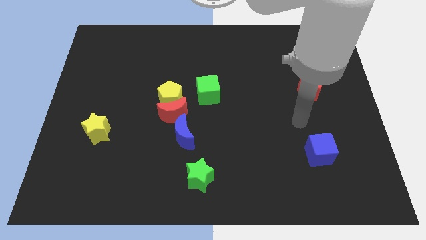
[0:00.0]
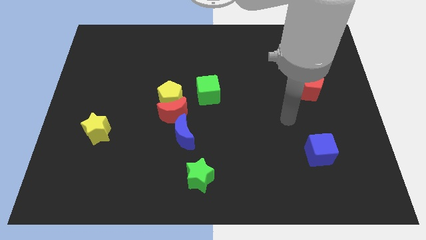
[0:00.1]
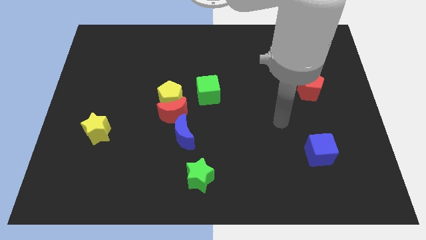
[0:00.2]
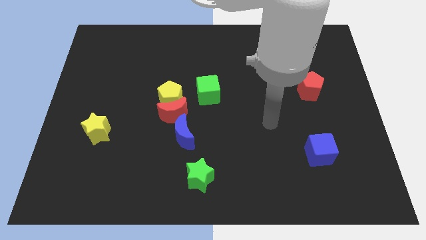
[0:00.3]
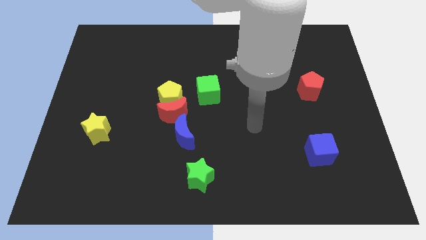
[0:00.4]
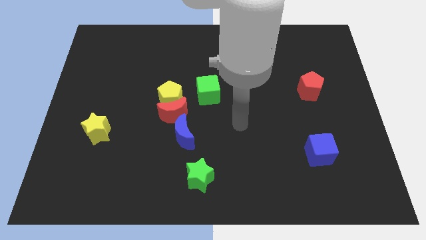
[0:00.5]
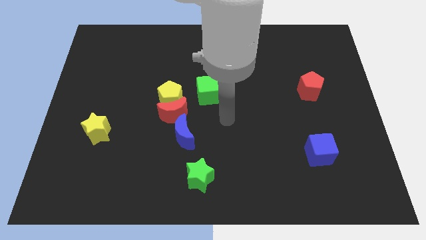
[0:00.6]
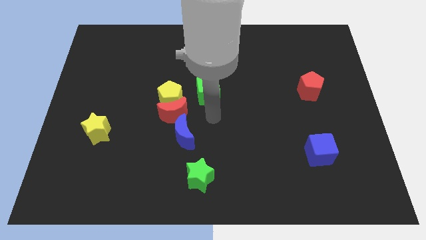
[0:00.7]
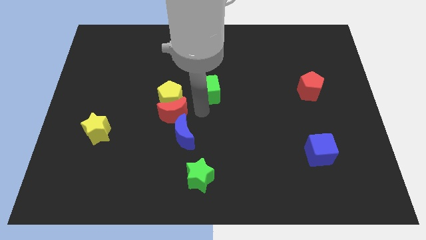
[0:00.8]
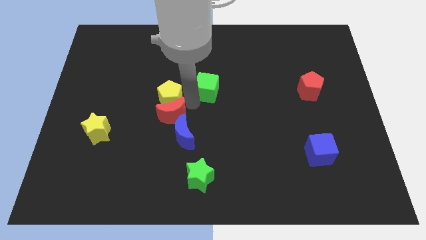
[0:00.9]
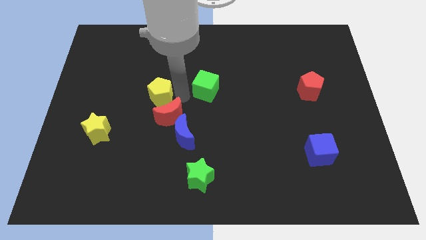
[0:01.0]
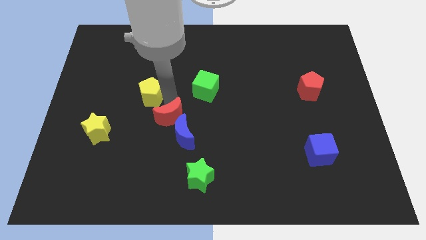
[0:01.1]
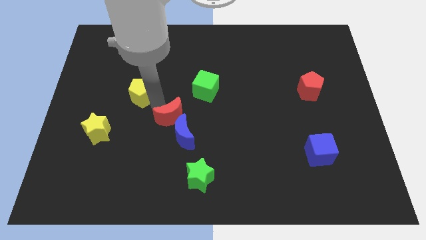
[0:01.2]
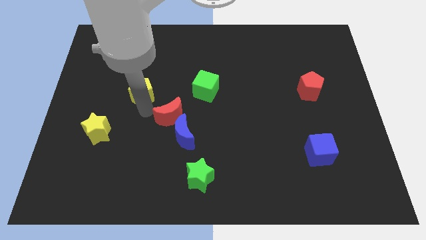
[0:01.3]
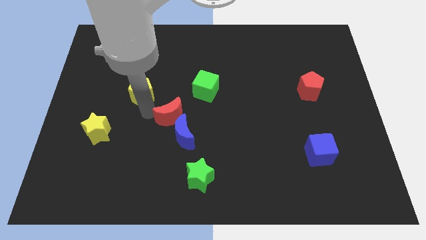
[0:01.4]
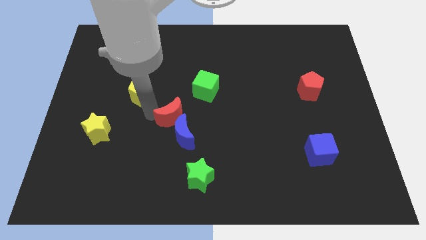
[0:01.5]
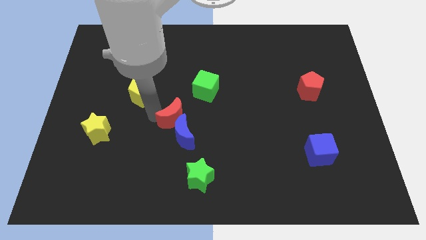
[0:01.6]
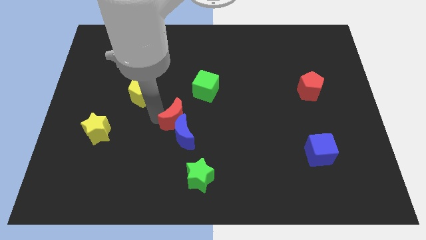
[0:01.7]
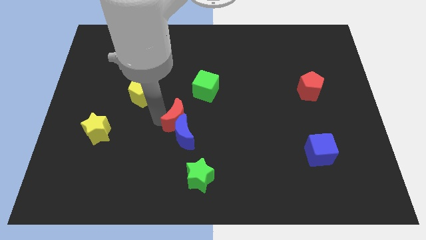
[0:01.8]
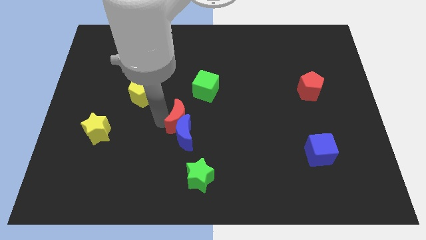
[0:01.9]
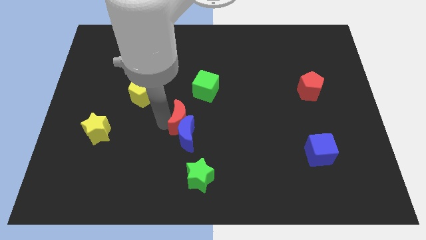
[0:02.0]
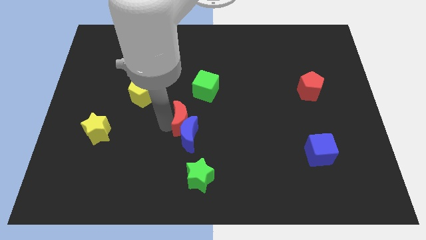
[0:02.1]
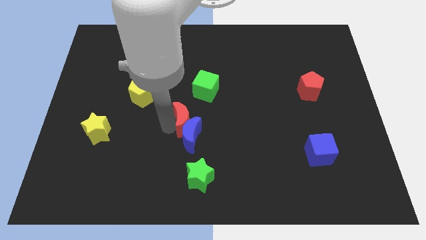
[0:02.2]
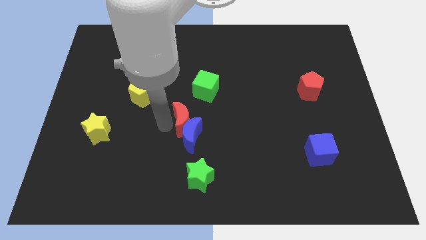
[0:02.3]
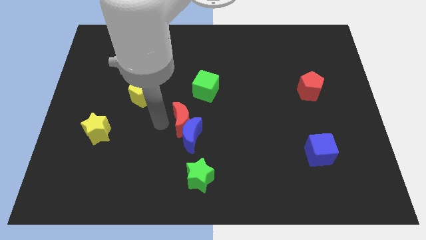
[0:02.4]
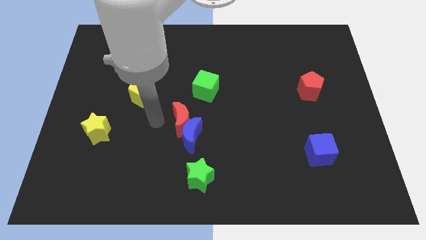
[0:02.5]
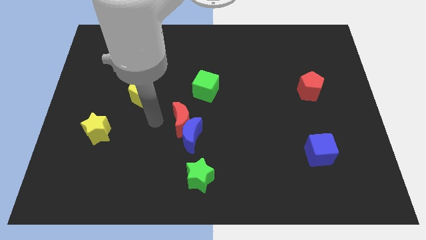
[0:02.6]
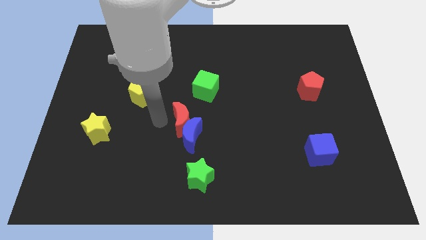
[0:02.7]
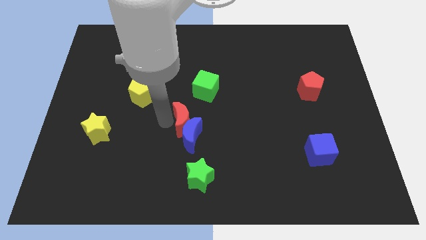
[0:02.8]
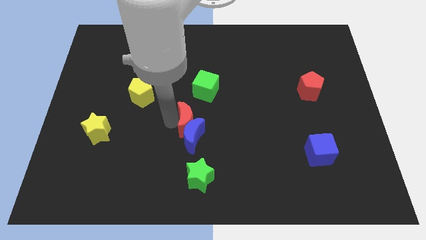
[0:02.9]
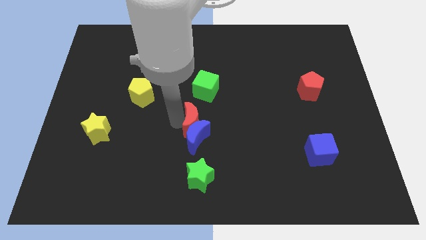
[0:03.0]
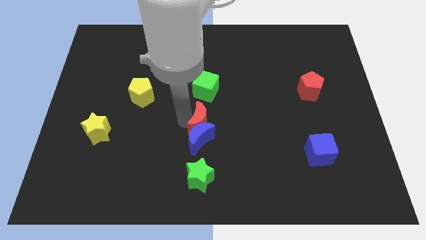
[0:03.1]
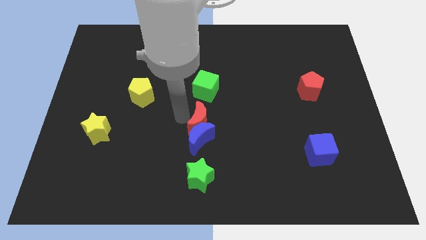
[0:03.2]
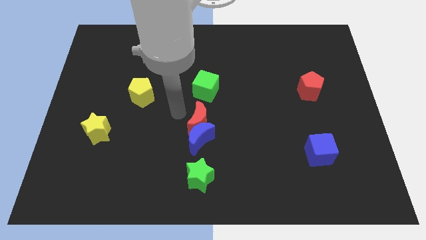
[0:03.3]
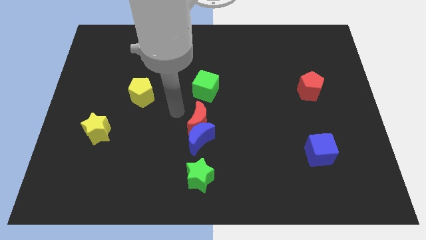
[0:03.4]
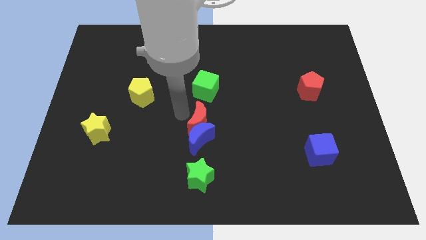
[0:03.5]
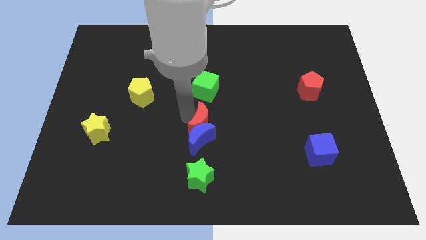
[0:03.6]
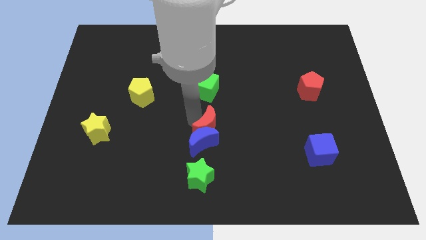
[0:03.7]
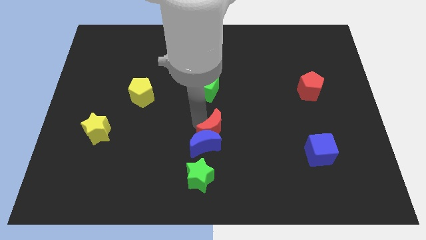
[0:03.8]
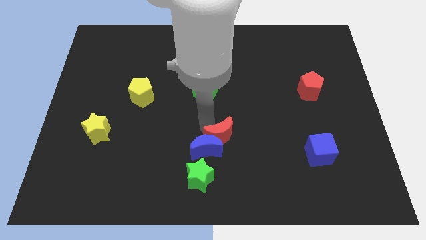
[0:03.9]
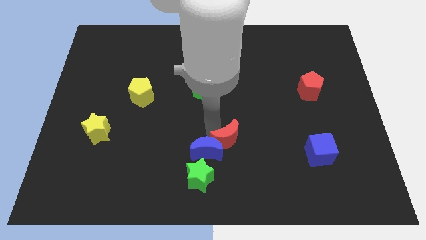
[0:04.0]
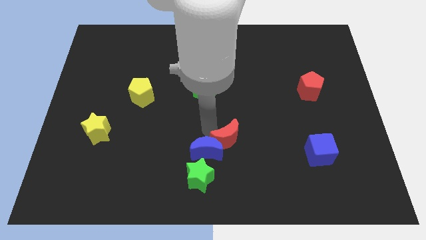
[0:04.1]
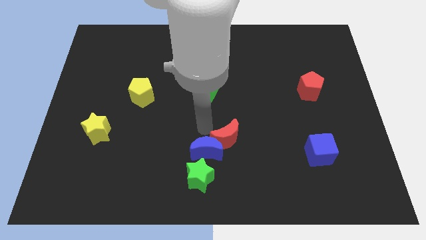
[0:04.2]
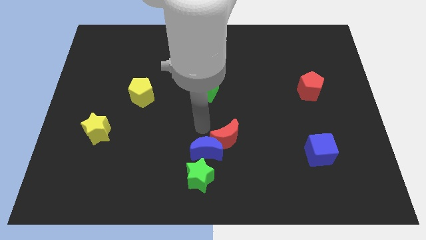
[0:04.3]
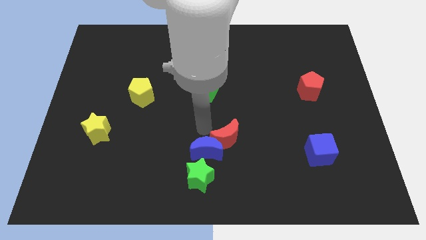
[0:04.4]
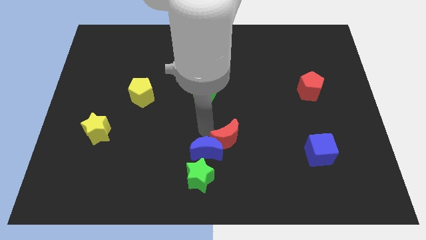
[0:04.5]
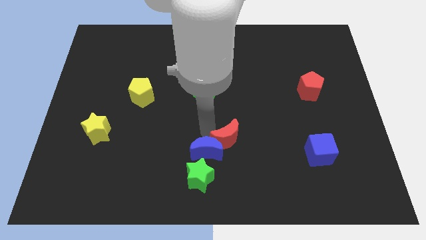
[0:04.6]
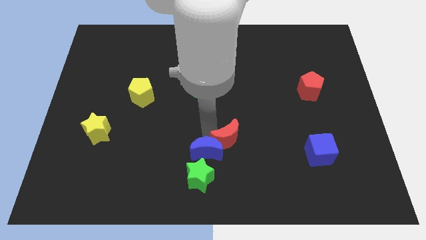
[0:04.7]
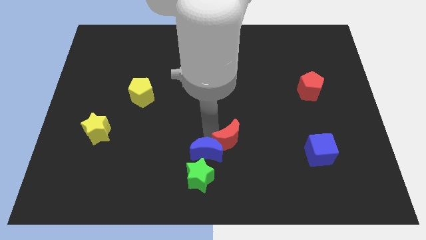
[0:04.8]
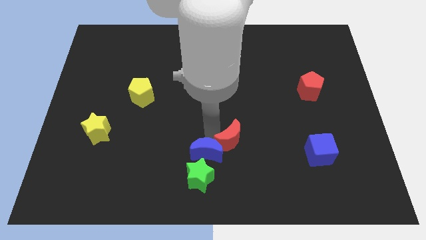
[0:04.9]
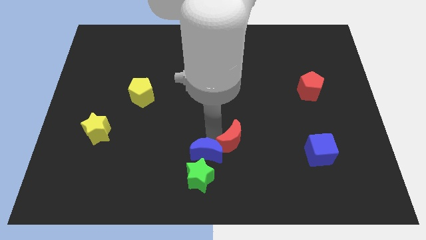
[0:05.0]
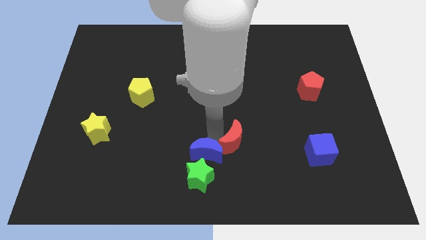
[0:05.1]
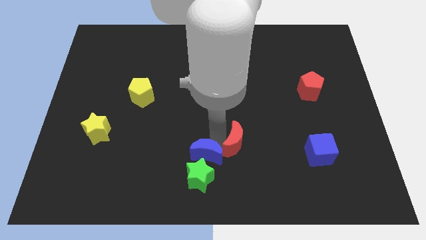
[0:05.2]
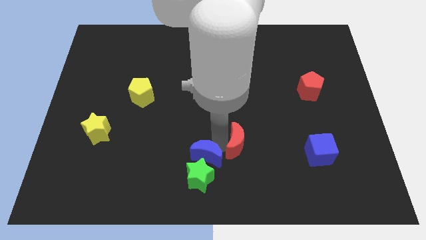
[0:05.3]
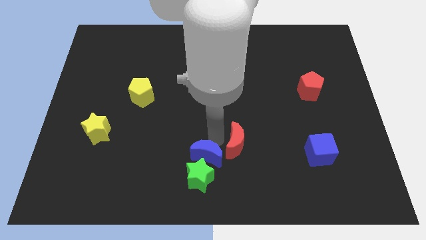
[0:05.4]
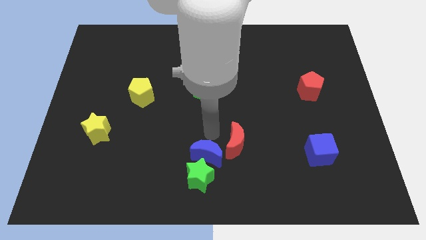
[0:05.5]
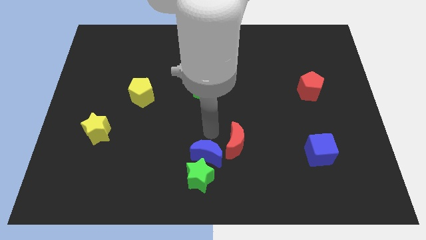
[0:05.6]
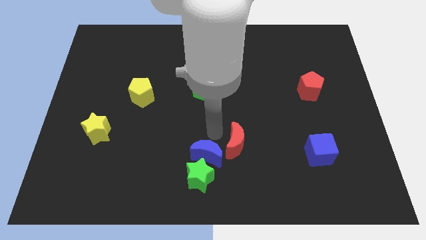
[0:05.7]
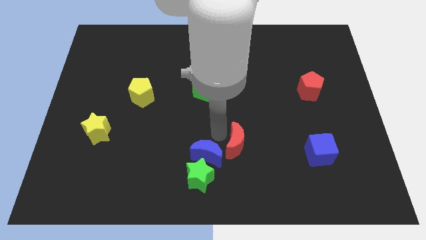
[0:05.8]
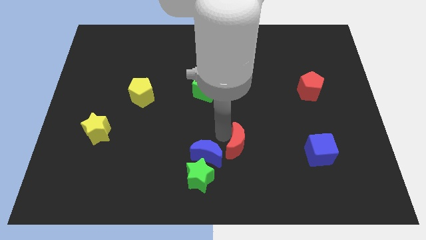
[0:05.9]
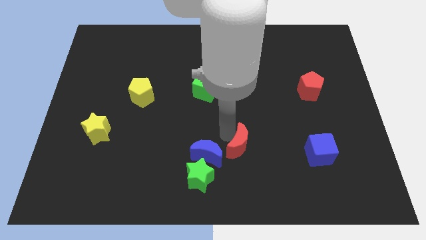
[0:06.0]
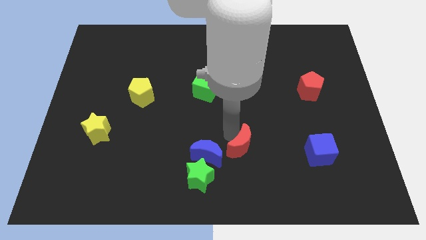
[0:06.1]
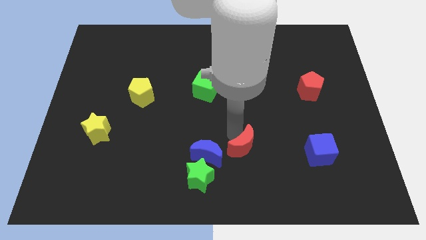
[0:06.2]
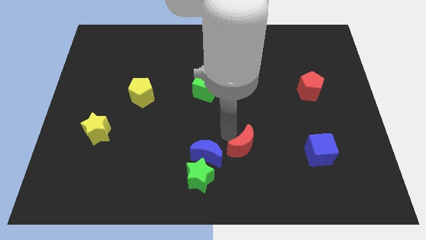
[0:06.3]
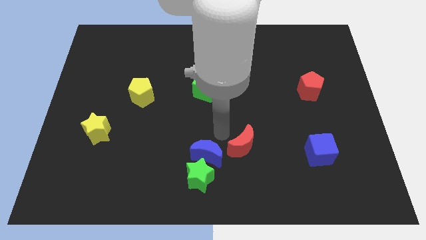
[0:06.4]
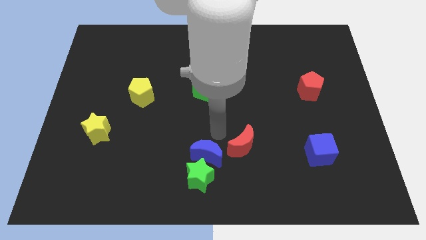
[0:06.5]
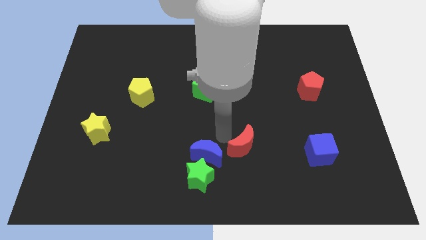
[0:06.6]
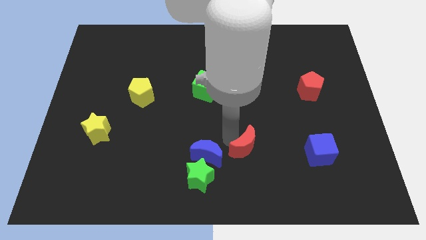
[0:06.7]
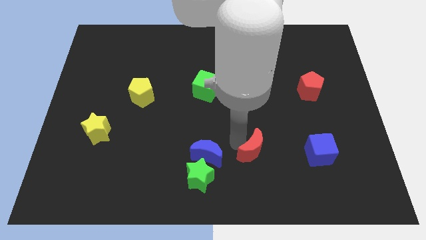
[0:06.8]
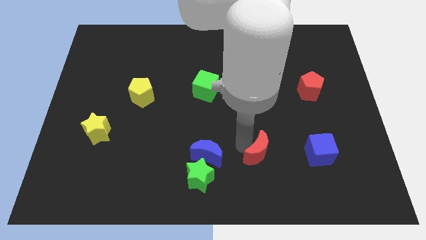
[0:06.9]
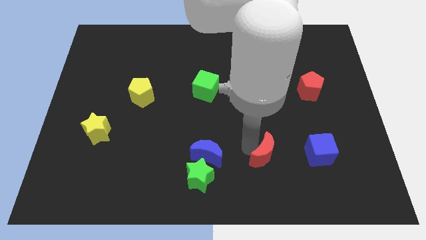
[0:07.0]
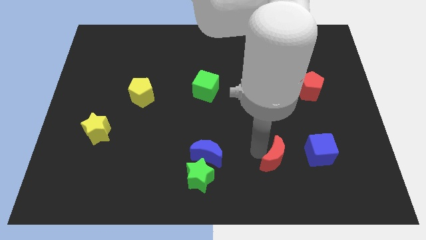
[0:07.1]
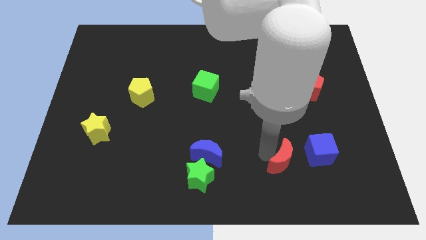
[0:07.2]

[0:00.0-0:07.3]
move the red moon diagonally down and to the left of the blue cube

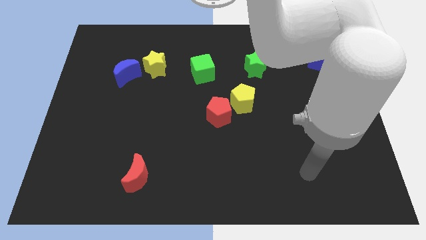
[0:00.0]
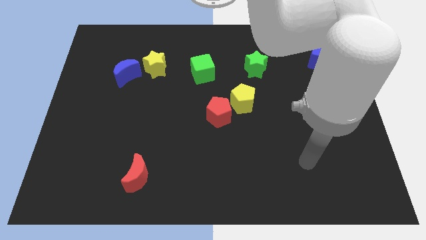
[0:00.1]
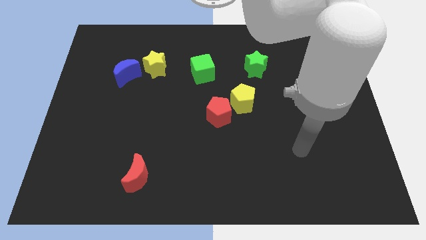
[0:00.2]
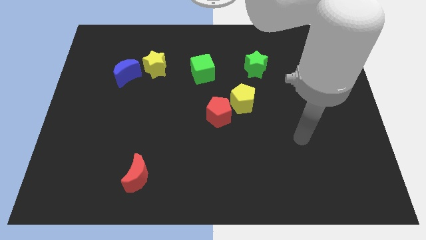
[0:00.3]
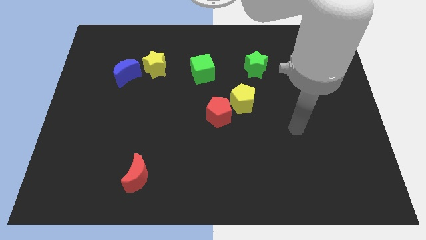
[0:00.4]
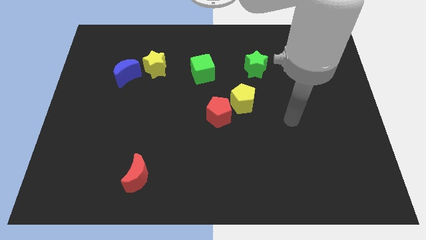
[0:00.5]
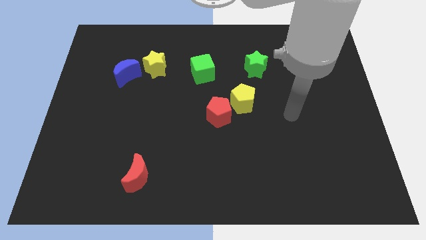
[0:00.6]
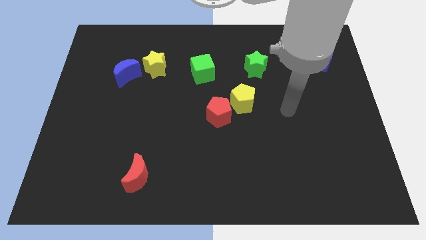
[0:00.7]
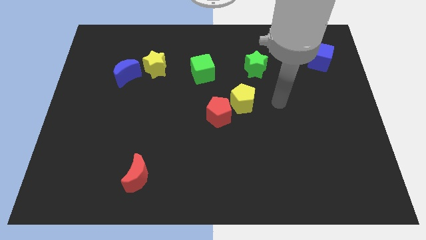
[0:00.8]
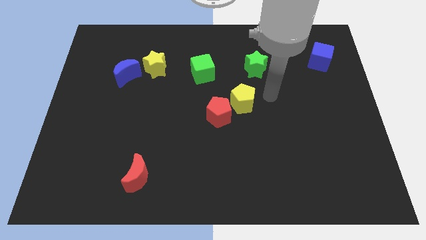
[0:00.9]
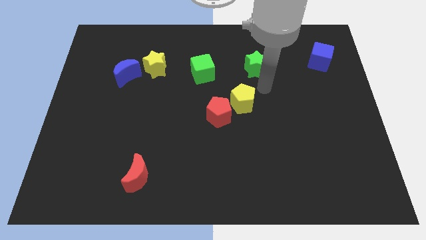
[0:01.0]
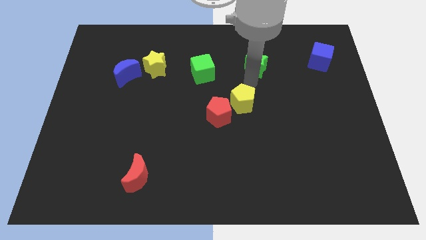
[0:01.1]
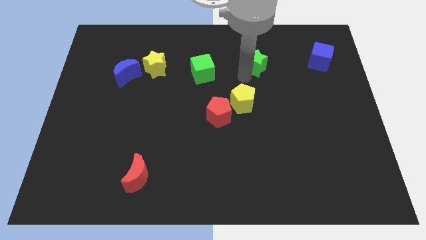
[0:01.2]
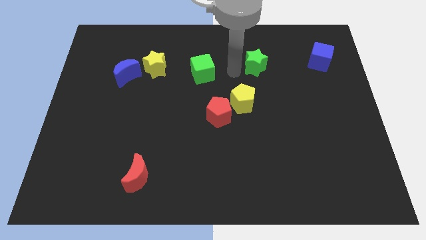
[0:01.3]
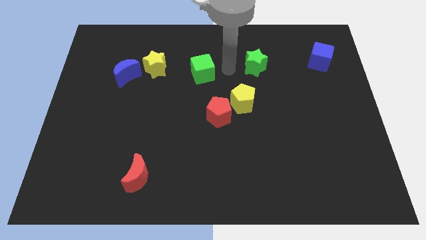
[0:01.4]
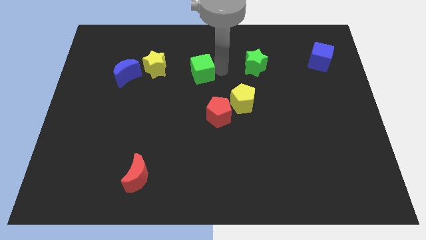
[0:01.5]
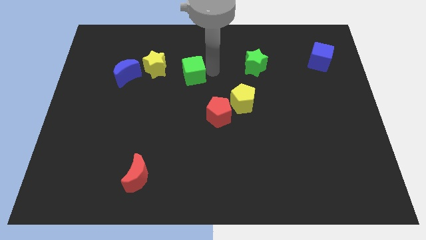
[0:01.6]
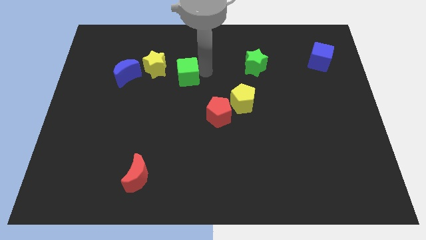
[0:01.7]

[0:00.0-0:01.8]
slide the green cube to the right side of the blue moon
